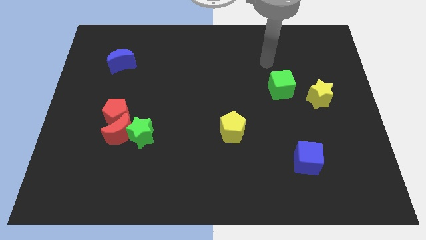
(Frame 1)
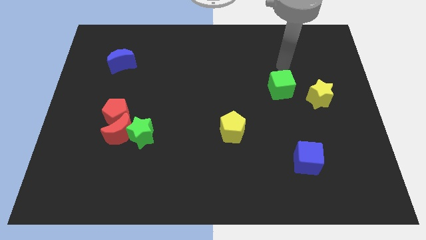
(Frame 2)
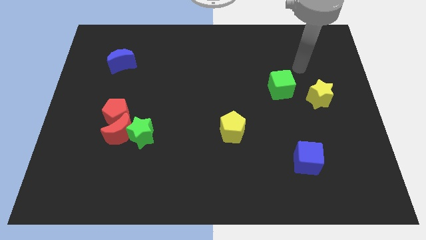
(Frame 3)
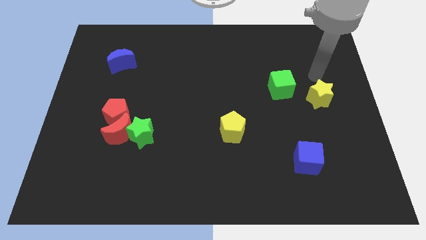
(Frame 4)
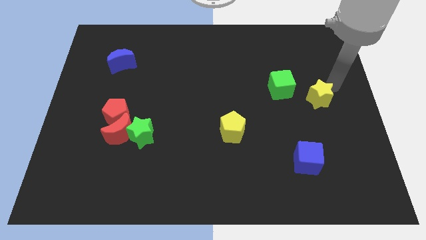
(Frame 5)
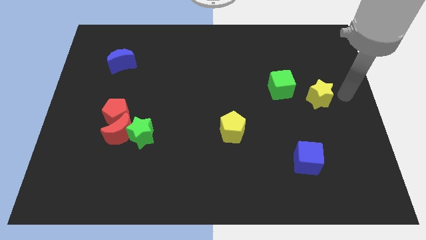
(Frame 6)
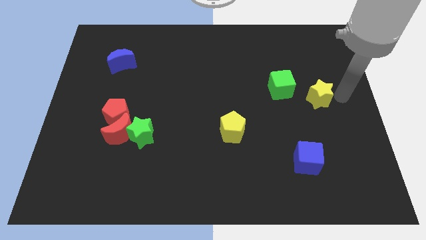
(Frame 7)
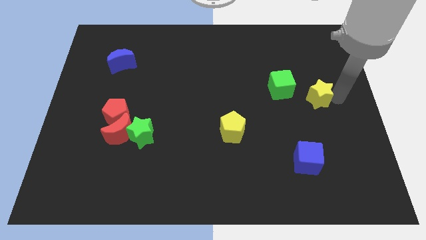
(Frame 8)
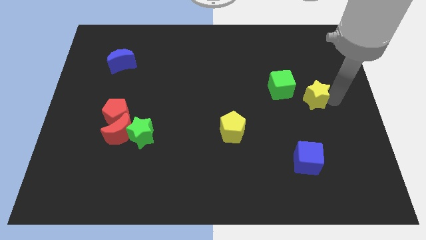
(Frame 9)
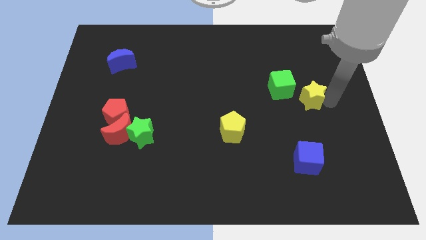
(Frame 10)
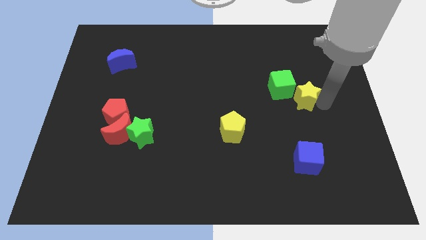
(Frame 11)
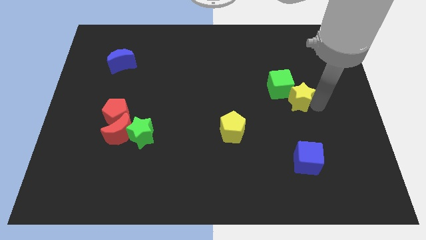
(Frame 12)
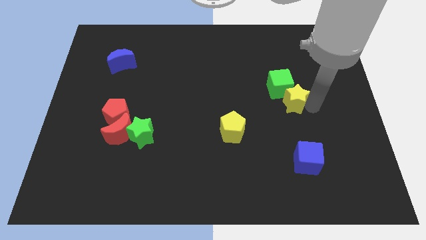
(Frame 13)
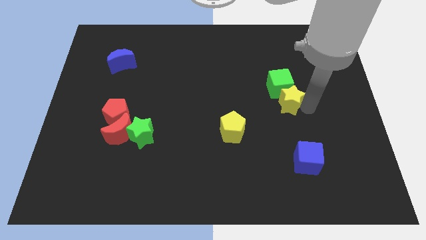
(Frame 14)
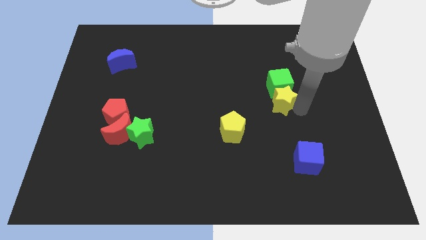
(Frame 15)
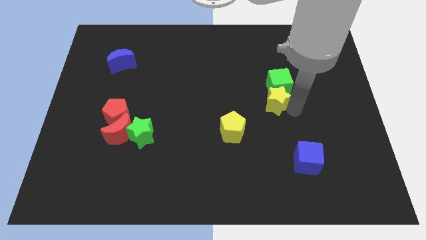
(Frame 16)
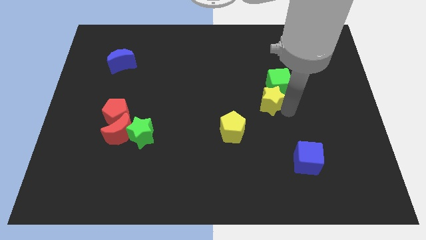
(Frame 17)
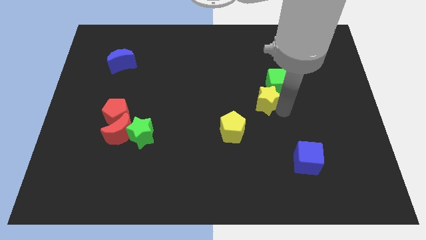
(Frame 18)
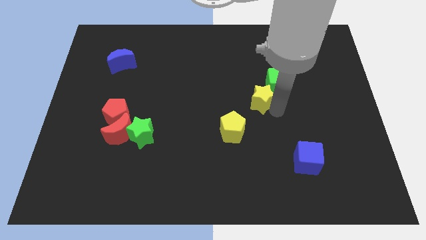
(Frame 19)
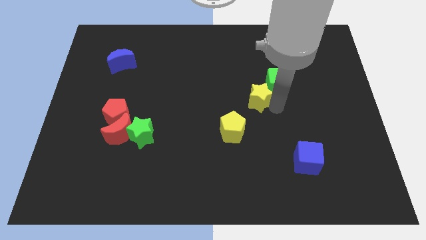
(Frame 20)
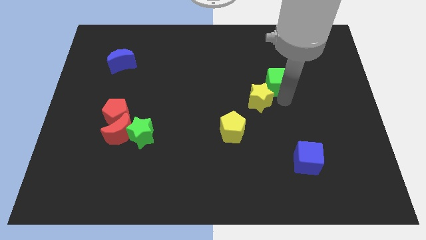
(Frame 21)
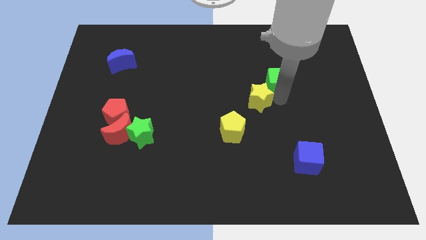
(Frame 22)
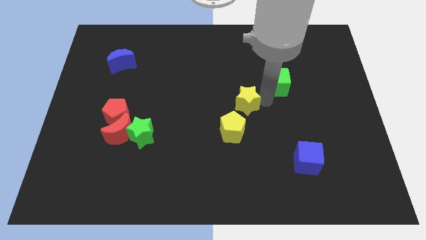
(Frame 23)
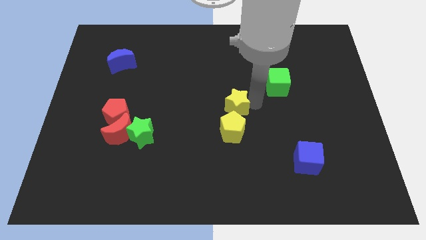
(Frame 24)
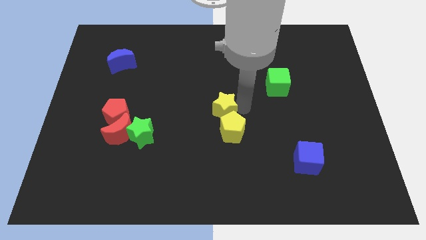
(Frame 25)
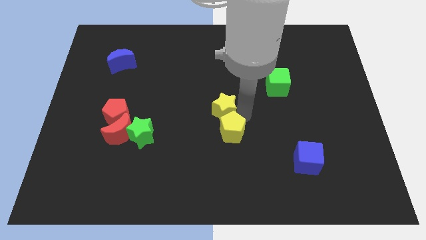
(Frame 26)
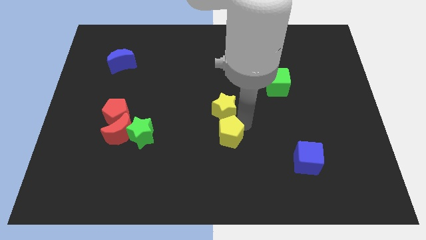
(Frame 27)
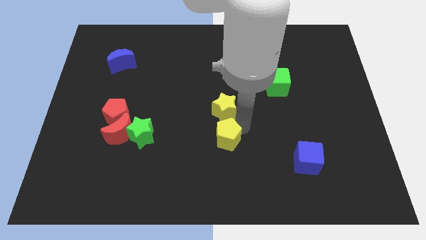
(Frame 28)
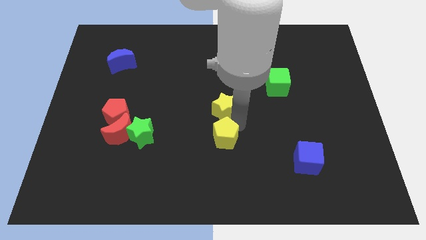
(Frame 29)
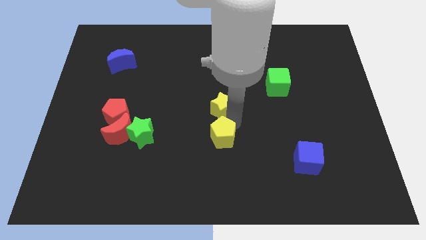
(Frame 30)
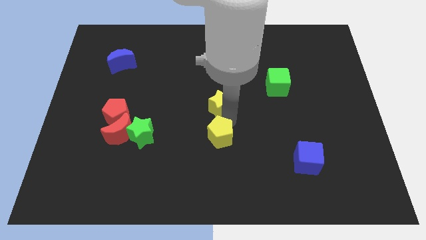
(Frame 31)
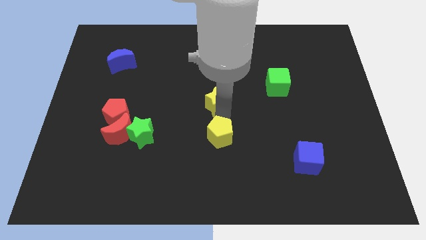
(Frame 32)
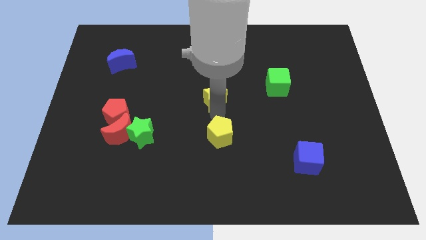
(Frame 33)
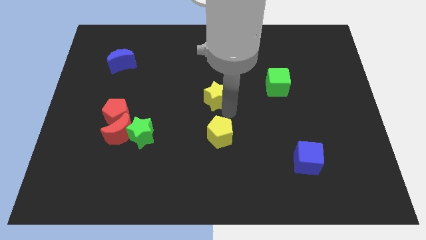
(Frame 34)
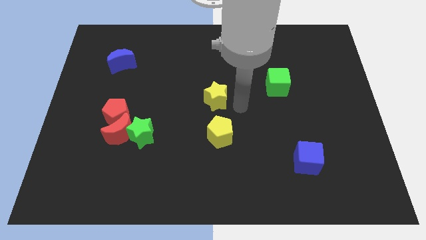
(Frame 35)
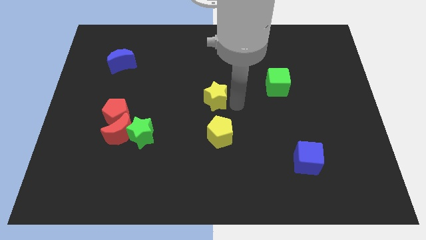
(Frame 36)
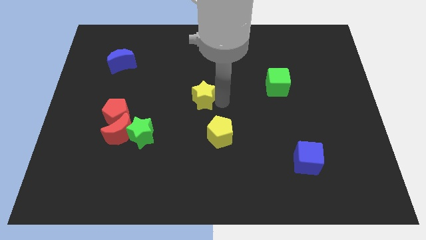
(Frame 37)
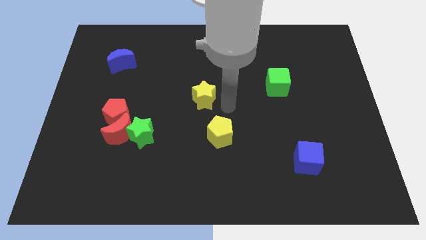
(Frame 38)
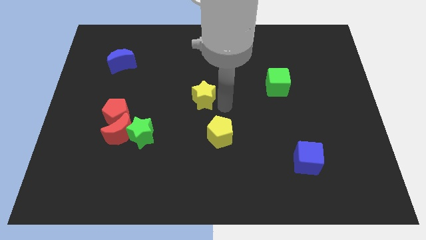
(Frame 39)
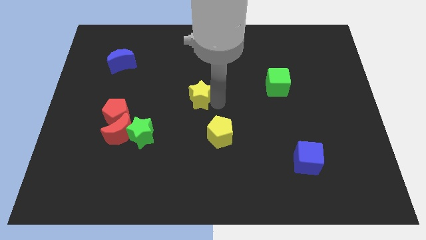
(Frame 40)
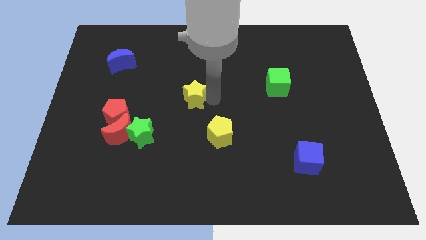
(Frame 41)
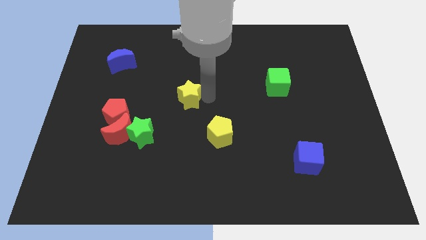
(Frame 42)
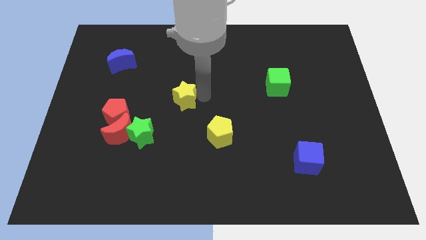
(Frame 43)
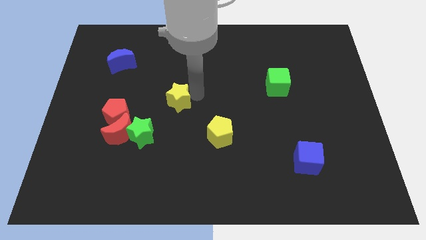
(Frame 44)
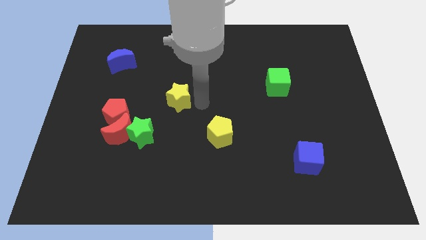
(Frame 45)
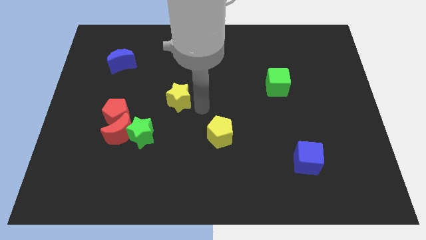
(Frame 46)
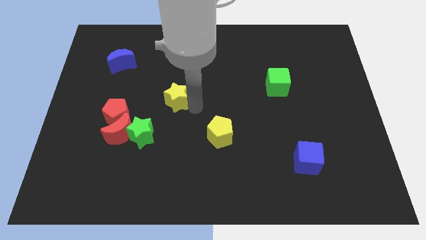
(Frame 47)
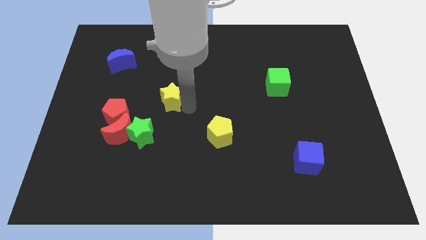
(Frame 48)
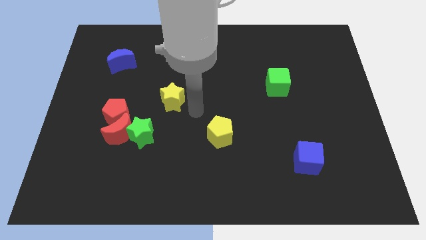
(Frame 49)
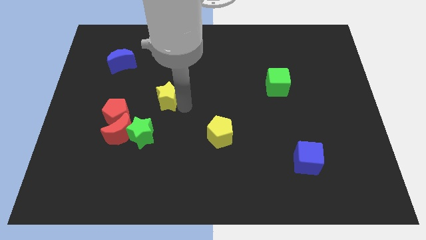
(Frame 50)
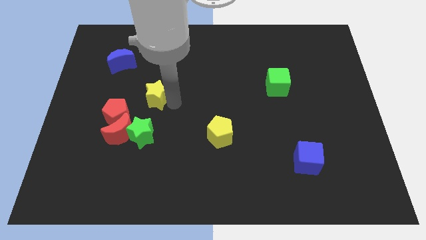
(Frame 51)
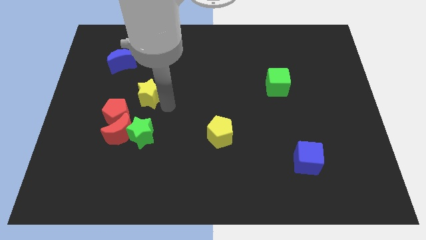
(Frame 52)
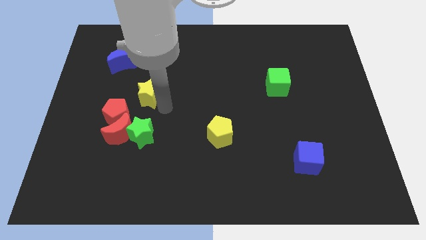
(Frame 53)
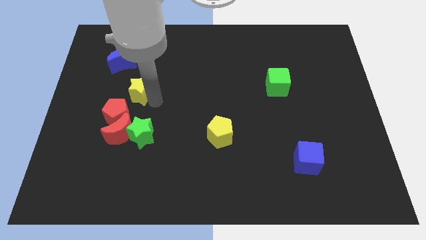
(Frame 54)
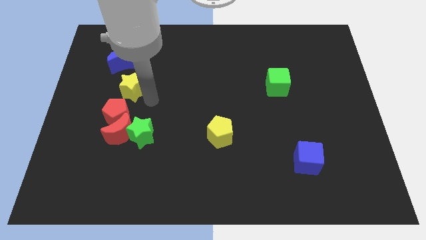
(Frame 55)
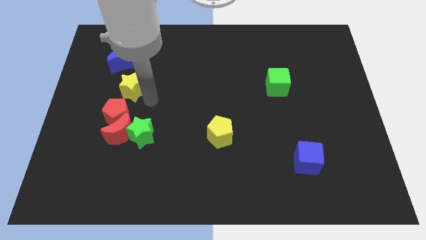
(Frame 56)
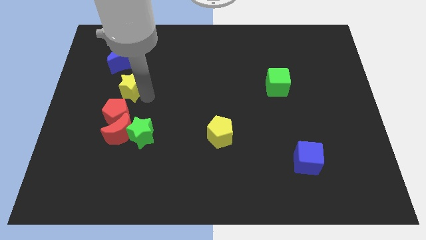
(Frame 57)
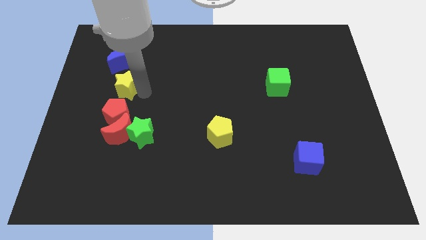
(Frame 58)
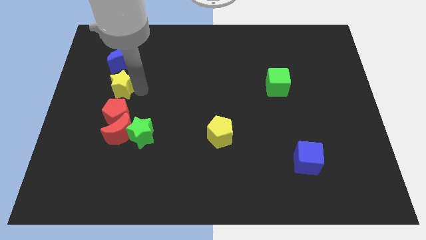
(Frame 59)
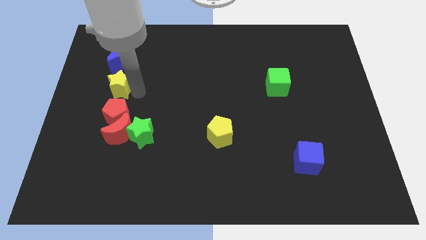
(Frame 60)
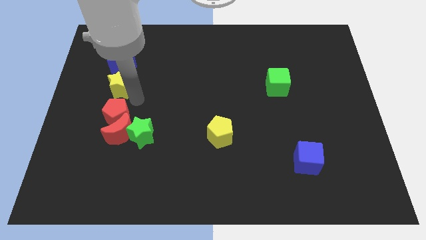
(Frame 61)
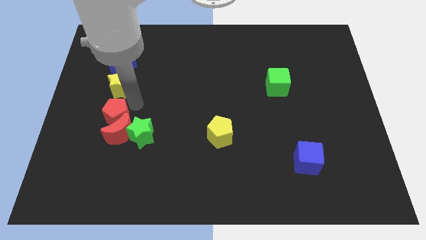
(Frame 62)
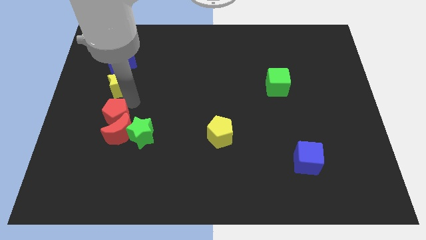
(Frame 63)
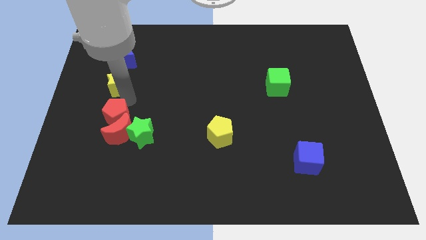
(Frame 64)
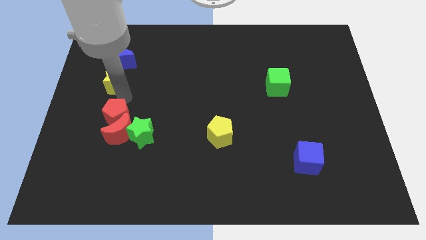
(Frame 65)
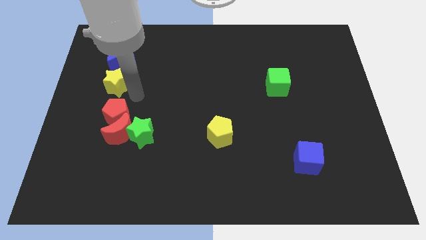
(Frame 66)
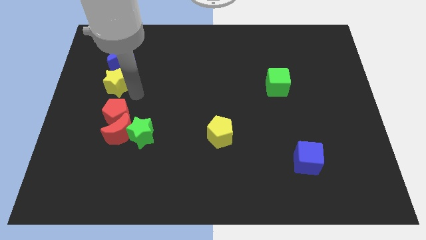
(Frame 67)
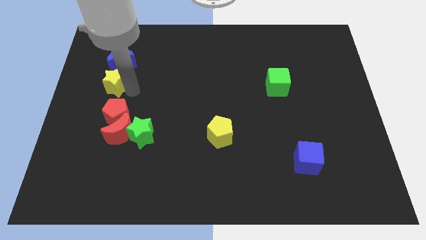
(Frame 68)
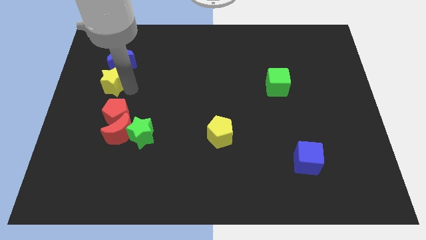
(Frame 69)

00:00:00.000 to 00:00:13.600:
put the yellow star to the bottom left of the blue moon

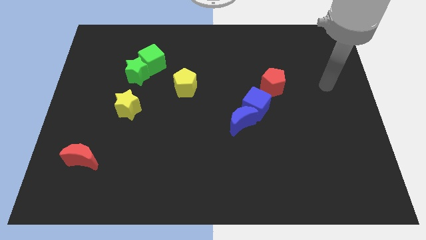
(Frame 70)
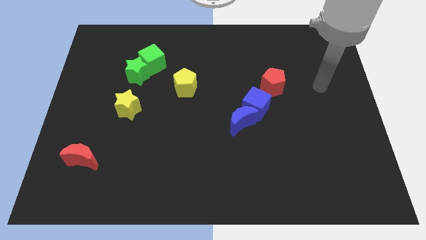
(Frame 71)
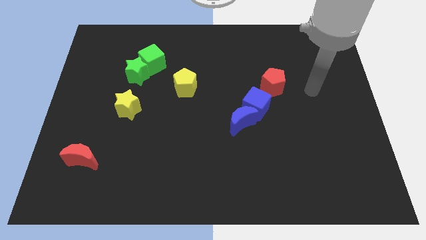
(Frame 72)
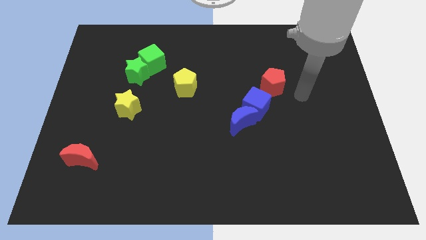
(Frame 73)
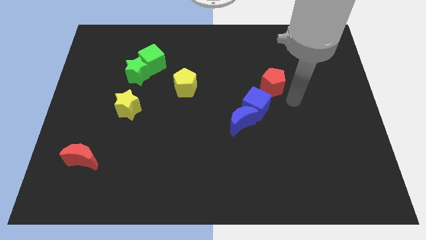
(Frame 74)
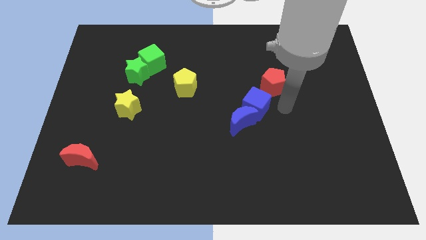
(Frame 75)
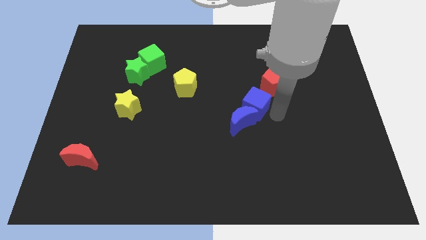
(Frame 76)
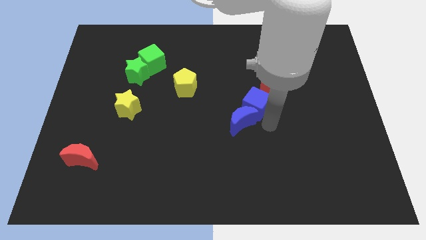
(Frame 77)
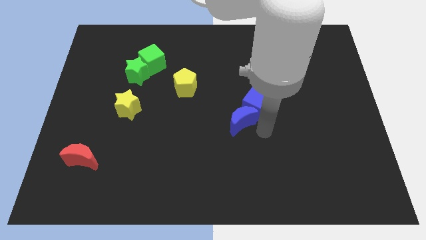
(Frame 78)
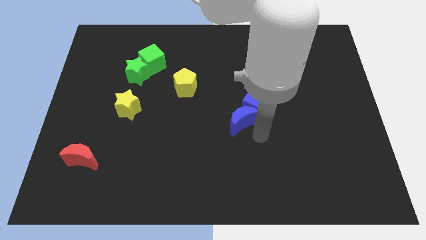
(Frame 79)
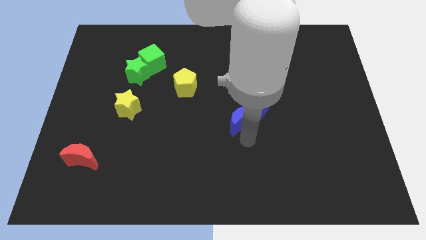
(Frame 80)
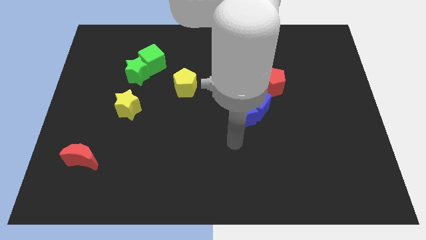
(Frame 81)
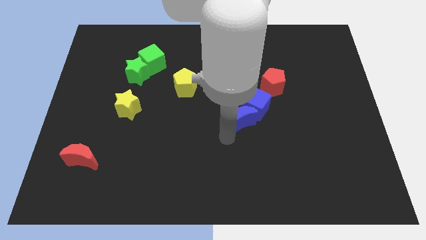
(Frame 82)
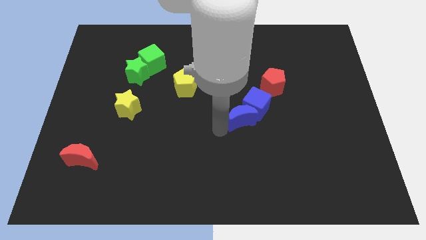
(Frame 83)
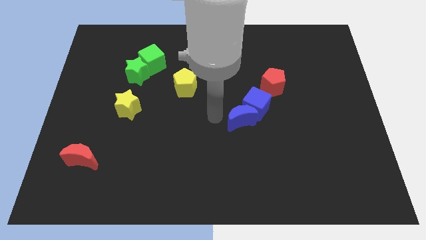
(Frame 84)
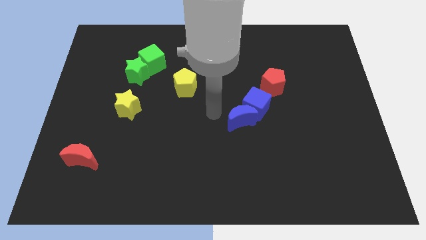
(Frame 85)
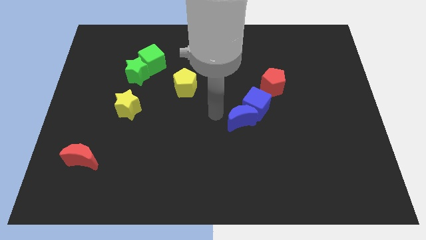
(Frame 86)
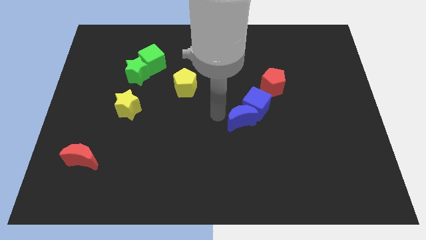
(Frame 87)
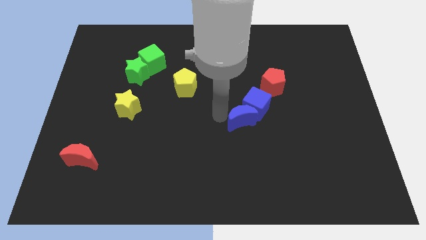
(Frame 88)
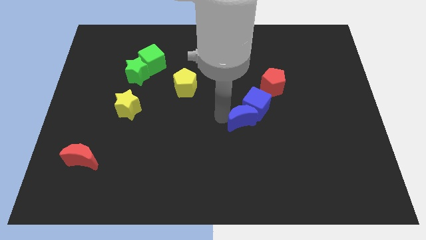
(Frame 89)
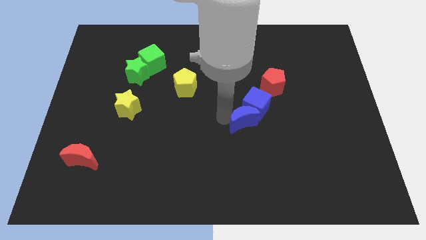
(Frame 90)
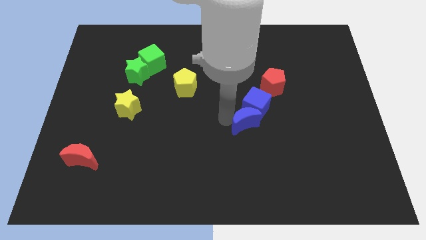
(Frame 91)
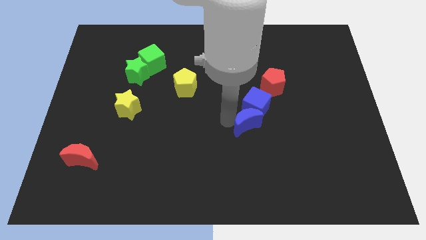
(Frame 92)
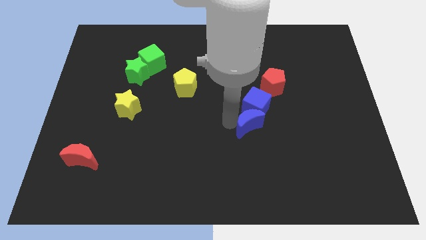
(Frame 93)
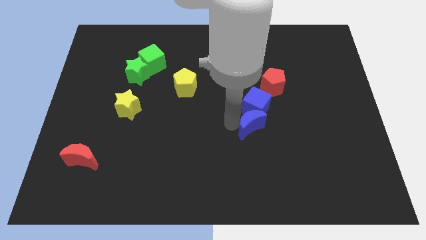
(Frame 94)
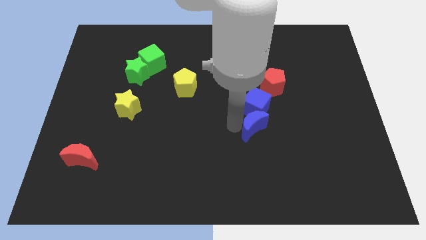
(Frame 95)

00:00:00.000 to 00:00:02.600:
slide the blue moon to the bottom right of the blue cube
